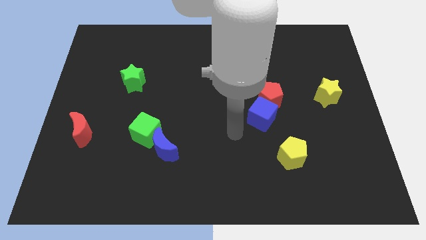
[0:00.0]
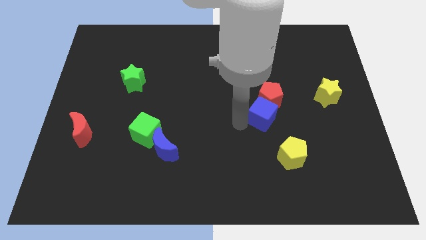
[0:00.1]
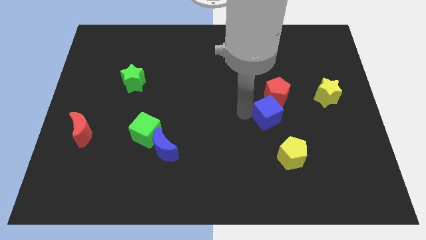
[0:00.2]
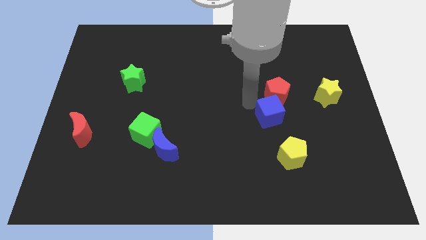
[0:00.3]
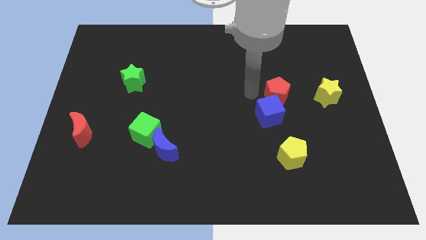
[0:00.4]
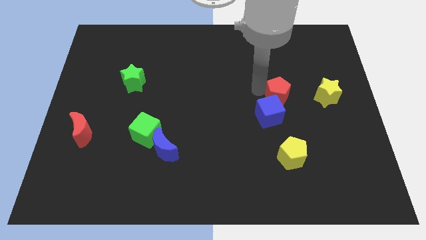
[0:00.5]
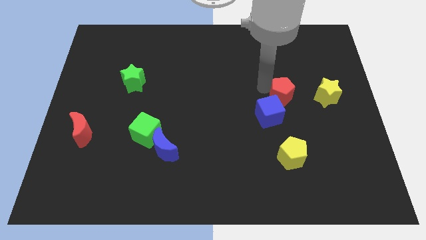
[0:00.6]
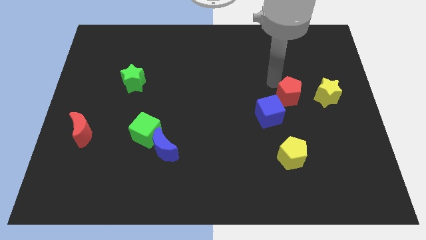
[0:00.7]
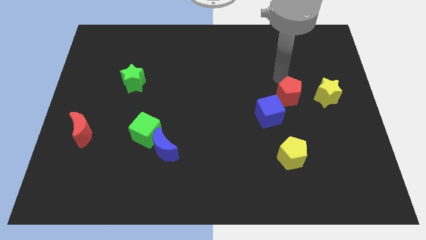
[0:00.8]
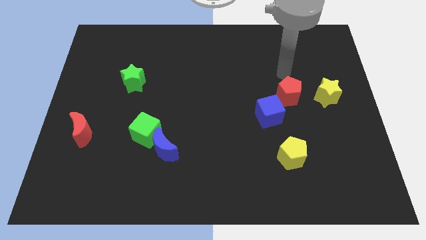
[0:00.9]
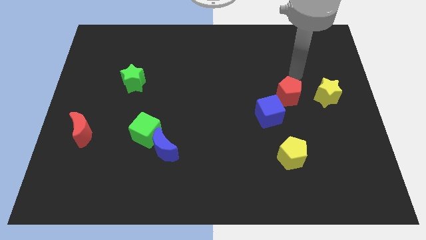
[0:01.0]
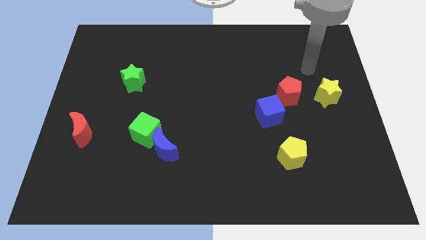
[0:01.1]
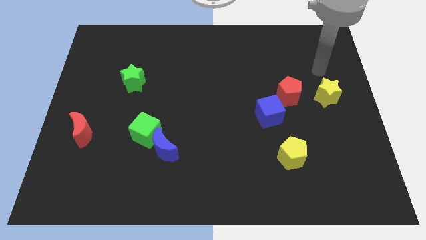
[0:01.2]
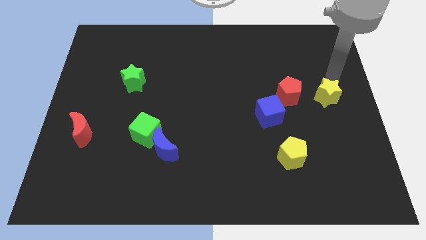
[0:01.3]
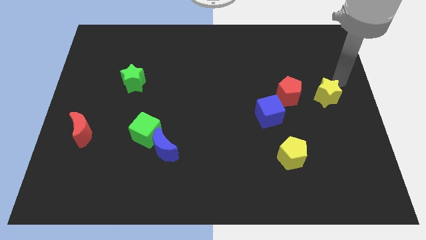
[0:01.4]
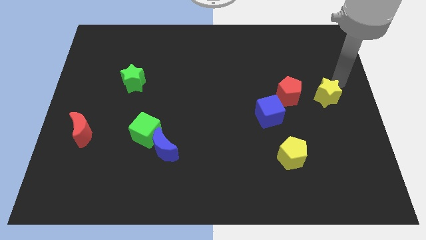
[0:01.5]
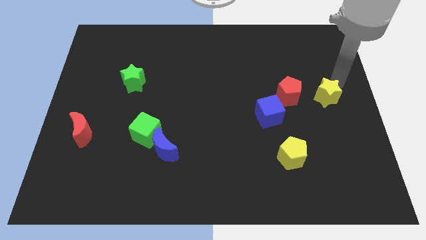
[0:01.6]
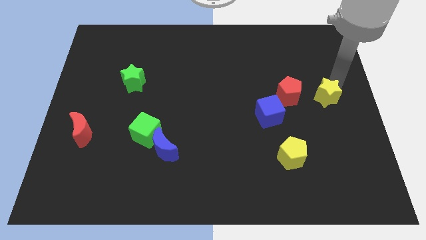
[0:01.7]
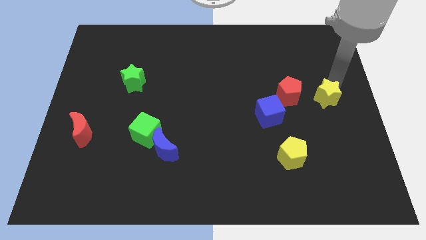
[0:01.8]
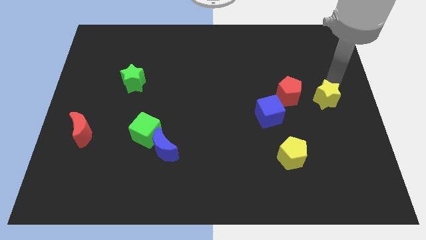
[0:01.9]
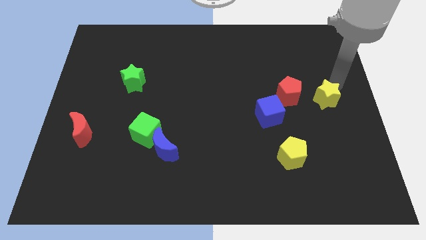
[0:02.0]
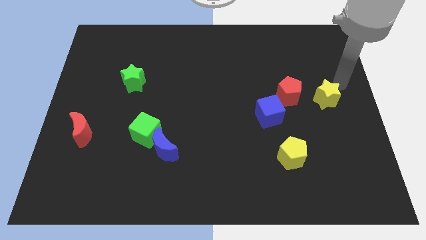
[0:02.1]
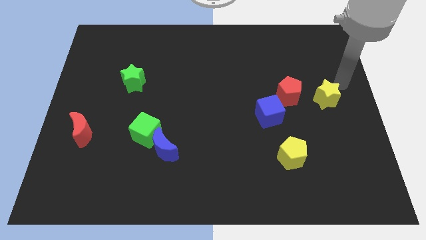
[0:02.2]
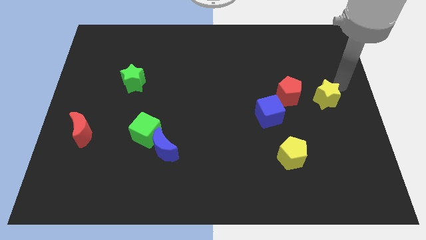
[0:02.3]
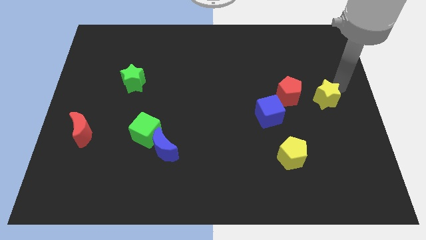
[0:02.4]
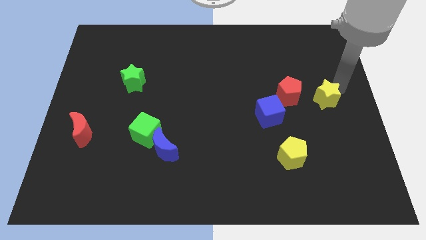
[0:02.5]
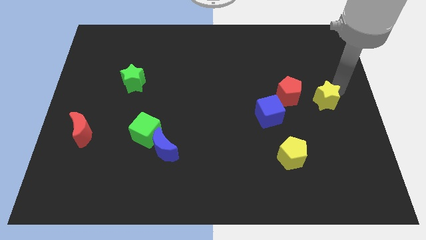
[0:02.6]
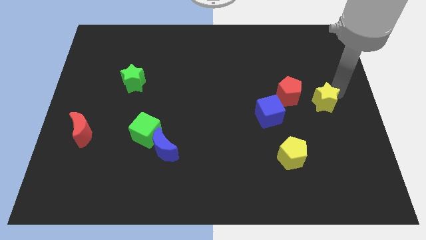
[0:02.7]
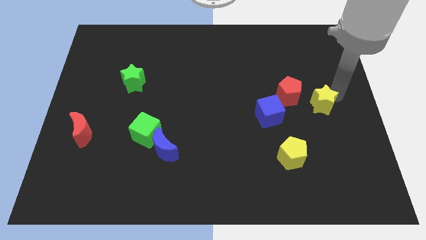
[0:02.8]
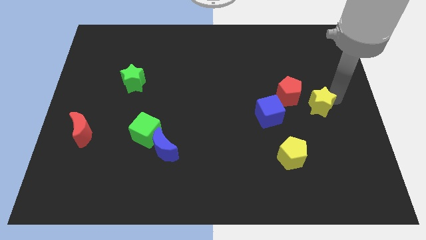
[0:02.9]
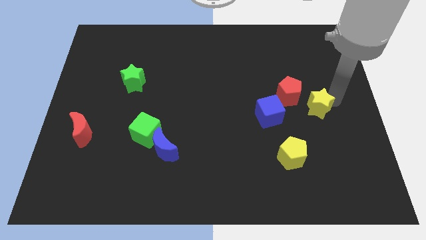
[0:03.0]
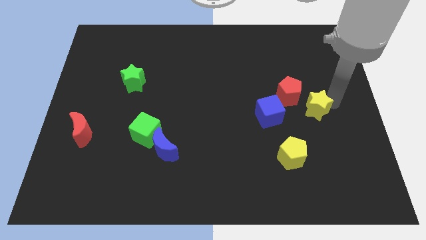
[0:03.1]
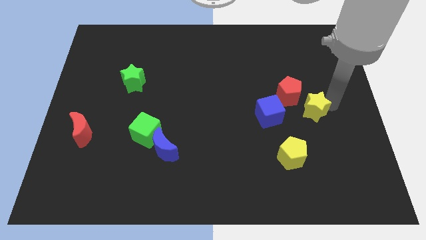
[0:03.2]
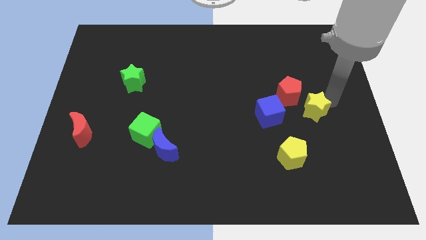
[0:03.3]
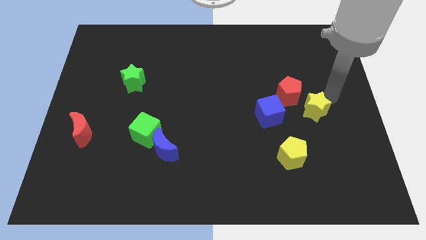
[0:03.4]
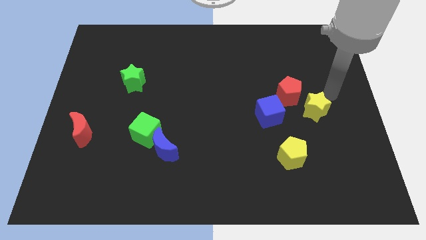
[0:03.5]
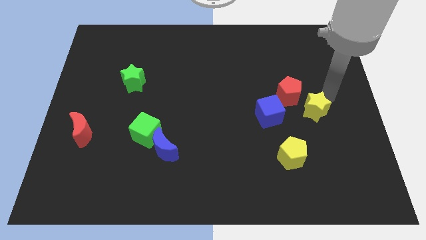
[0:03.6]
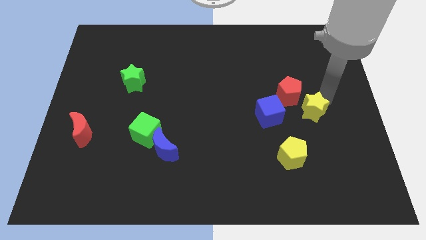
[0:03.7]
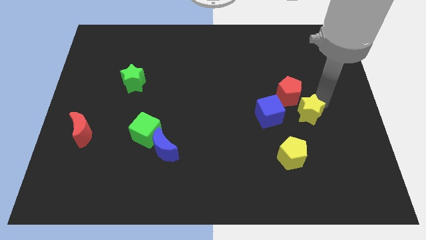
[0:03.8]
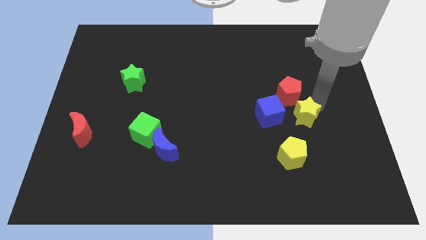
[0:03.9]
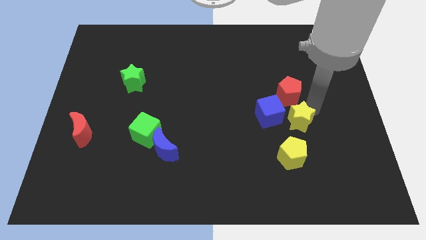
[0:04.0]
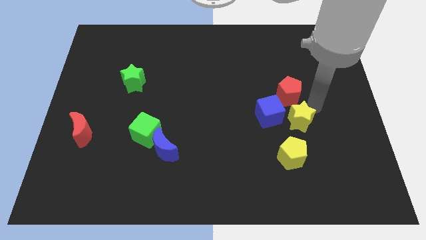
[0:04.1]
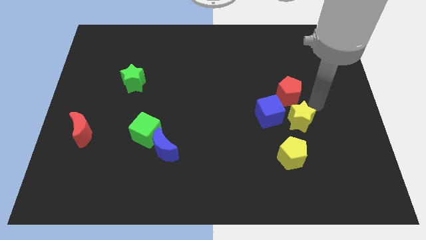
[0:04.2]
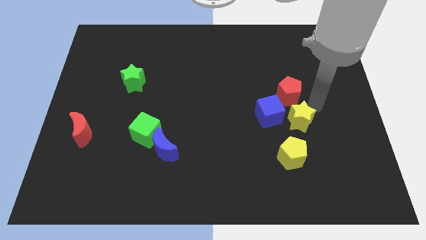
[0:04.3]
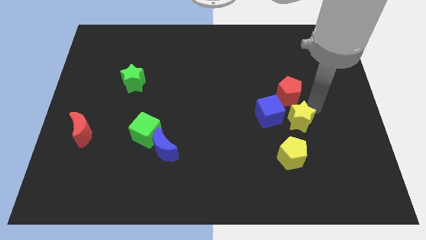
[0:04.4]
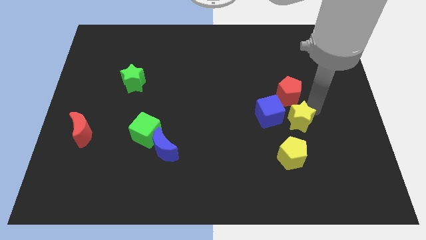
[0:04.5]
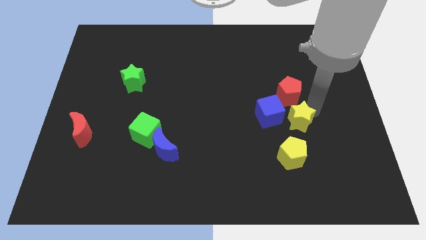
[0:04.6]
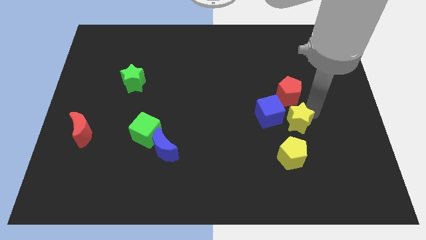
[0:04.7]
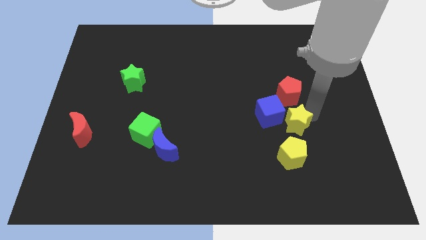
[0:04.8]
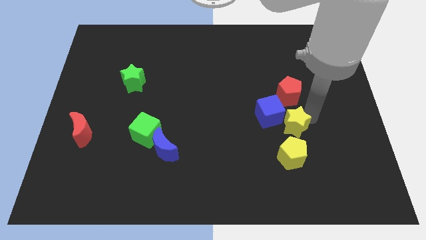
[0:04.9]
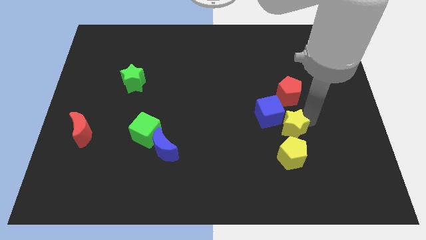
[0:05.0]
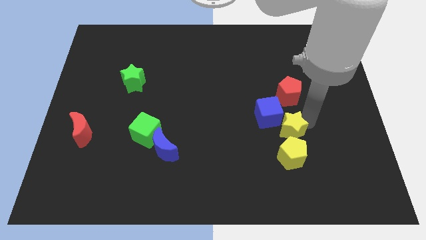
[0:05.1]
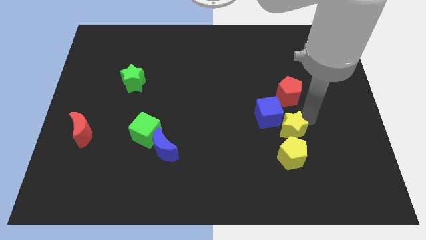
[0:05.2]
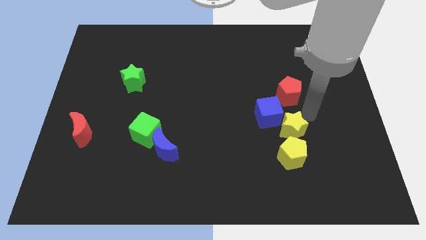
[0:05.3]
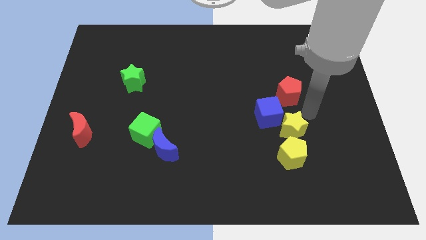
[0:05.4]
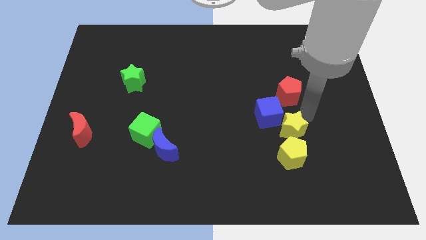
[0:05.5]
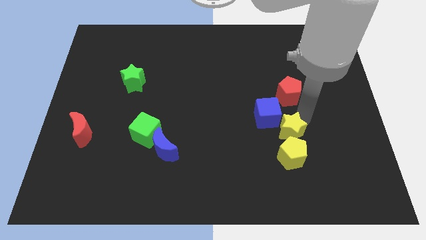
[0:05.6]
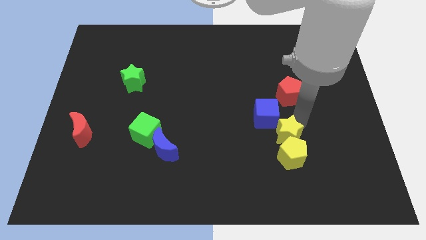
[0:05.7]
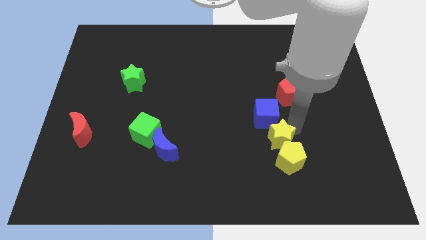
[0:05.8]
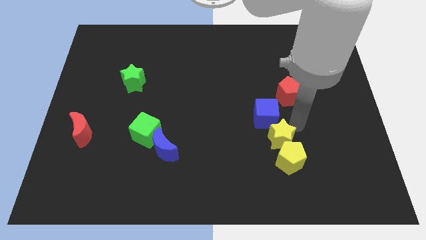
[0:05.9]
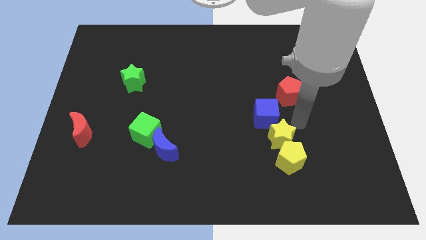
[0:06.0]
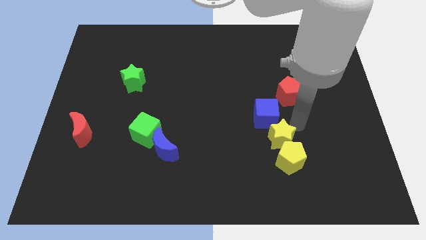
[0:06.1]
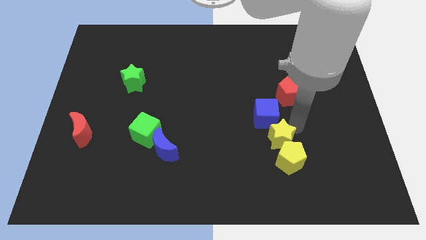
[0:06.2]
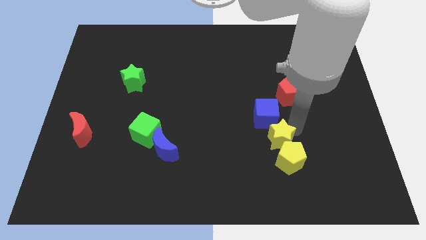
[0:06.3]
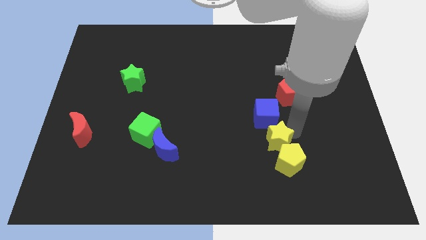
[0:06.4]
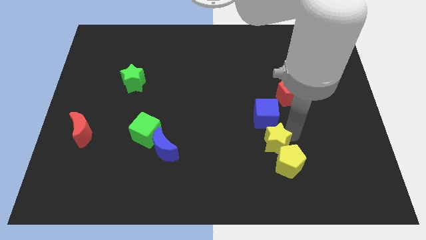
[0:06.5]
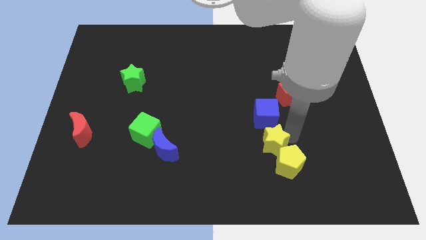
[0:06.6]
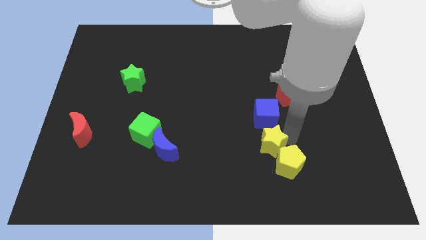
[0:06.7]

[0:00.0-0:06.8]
push the yellow star diagonally downwards and to the left

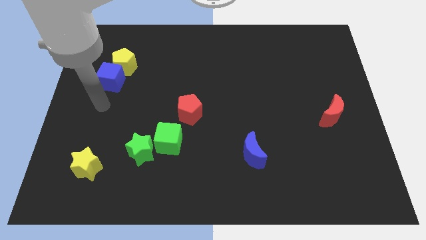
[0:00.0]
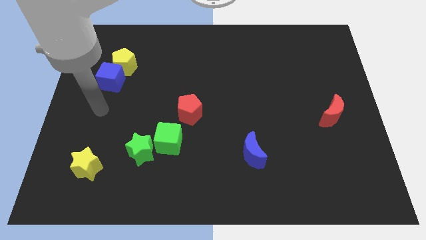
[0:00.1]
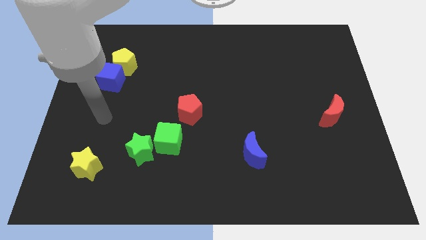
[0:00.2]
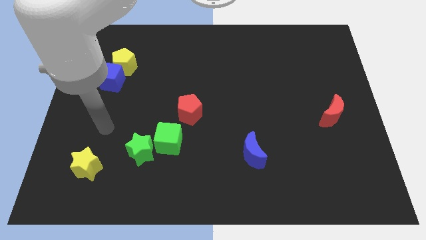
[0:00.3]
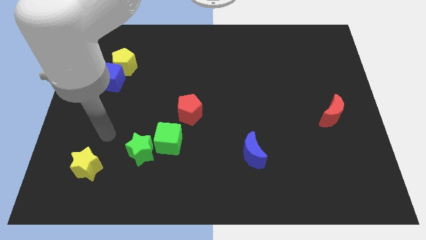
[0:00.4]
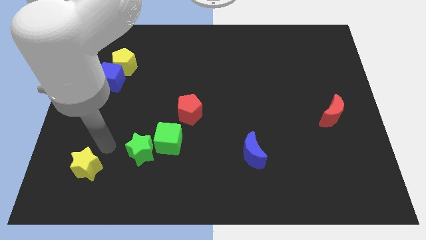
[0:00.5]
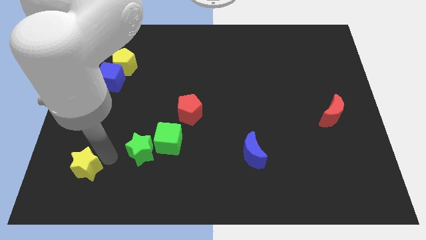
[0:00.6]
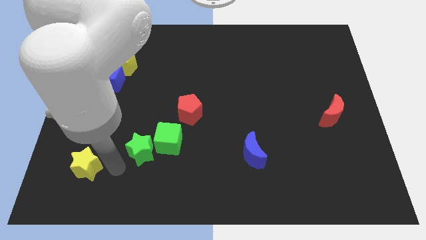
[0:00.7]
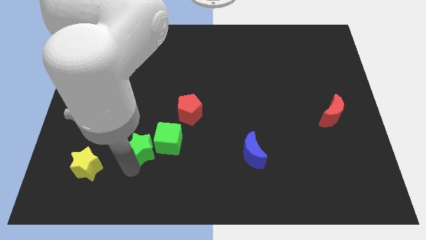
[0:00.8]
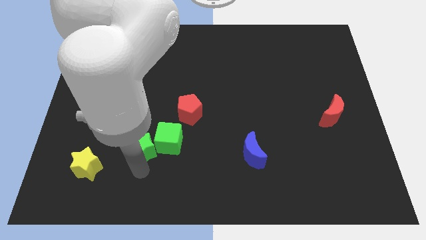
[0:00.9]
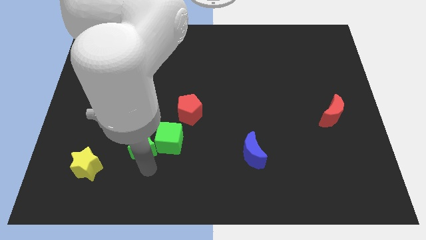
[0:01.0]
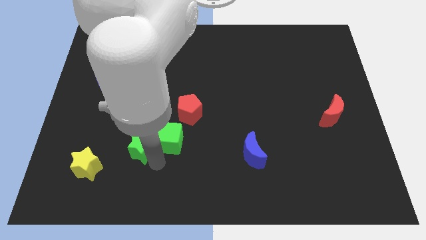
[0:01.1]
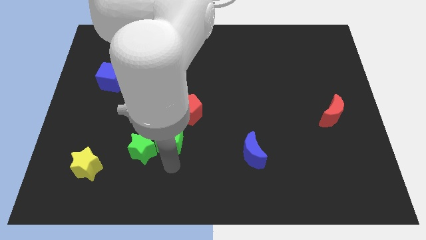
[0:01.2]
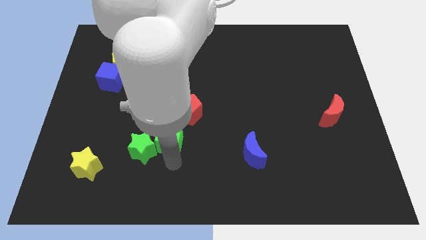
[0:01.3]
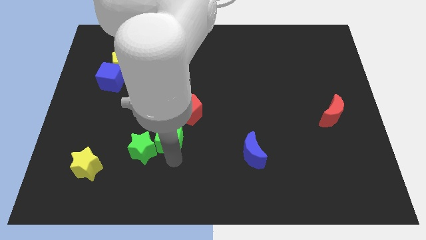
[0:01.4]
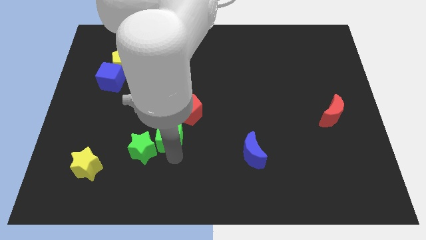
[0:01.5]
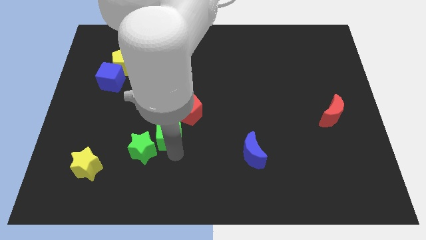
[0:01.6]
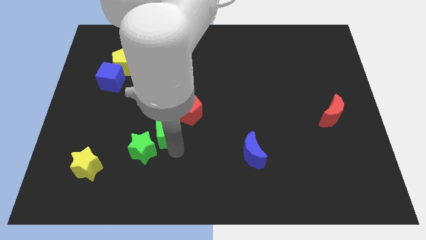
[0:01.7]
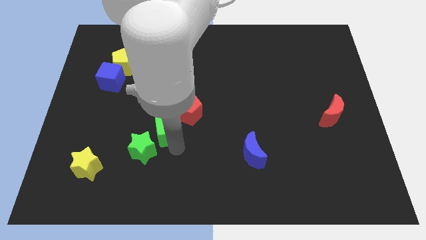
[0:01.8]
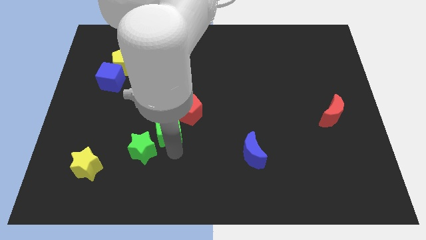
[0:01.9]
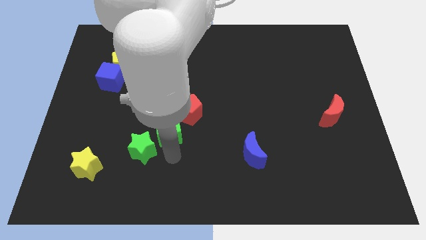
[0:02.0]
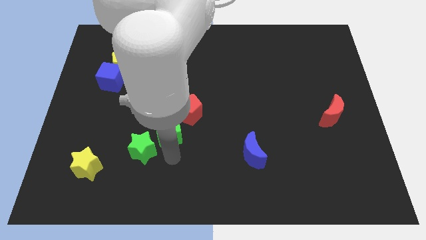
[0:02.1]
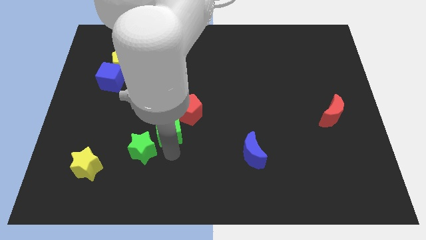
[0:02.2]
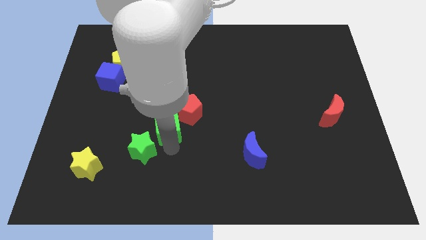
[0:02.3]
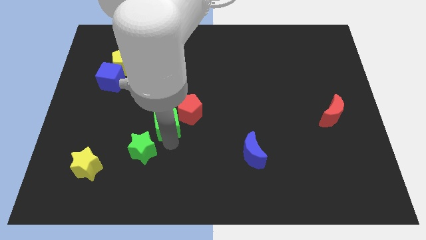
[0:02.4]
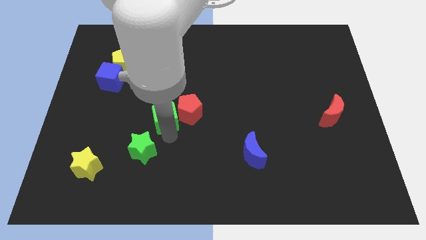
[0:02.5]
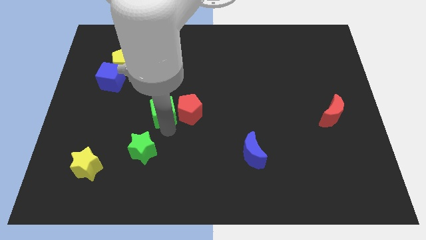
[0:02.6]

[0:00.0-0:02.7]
push the green cube a bit upwards
